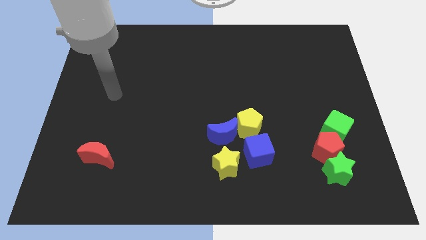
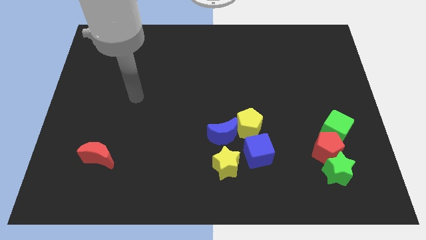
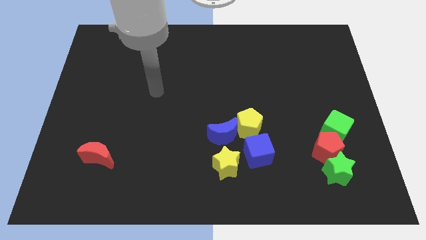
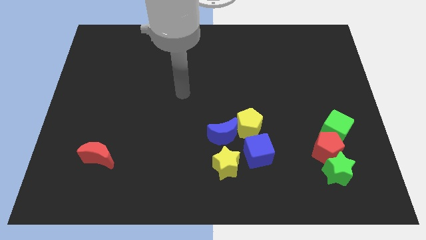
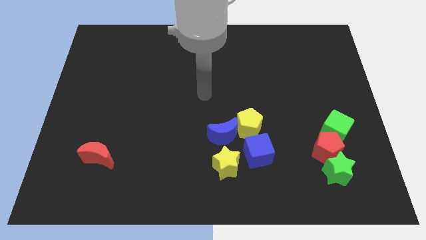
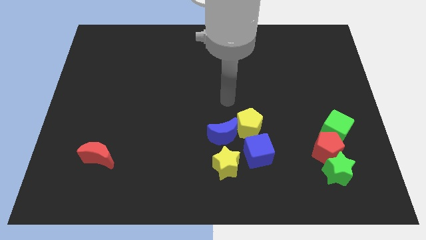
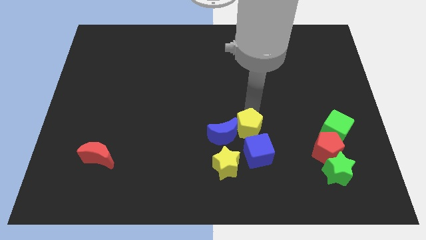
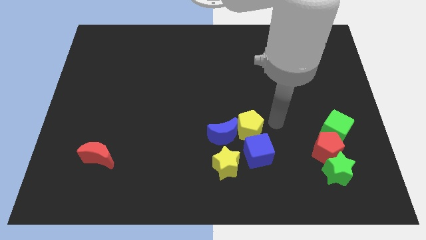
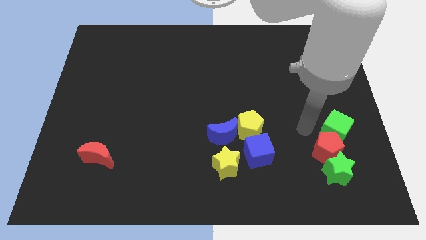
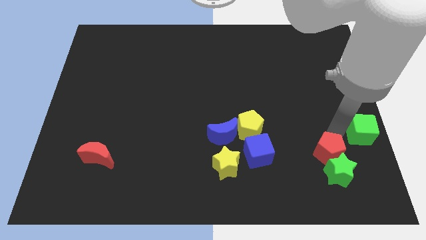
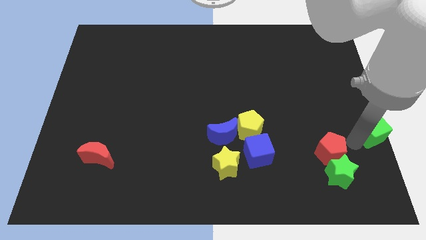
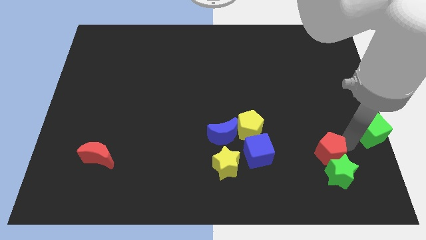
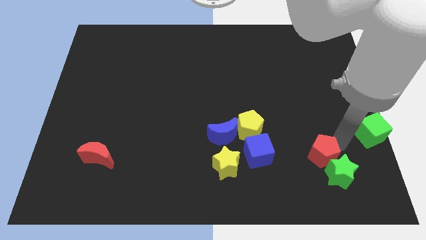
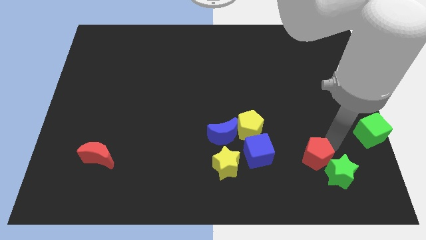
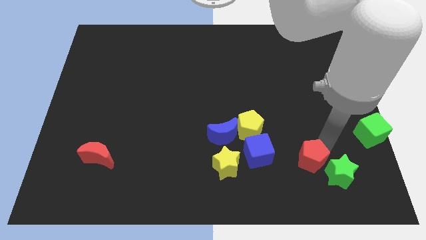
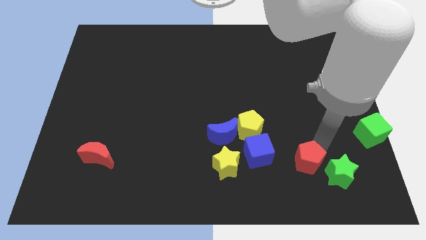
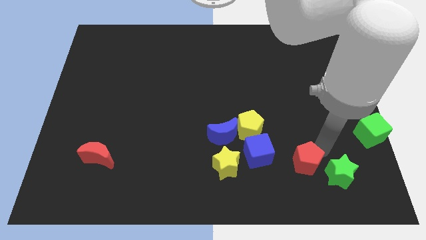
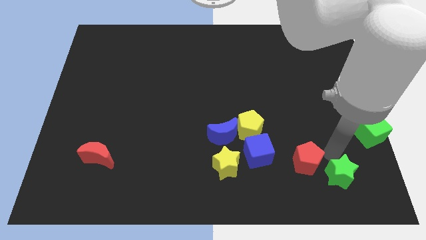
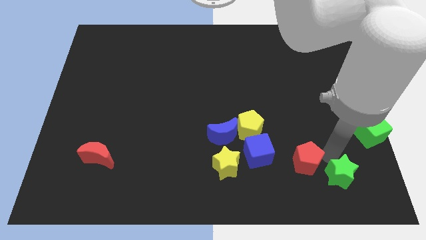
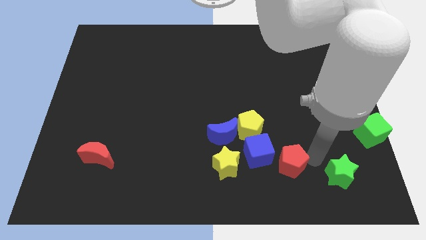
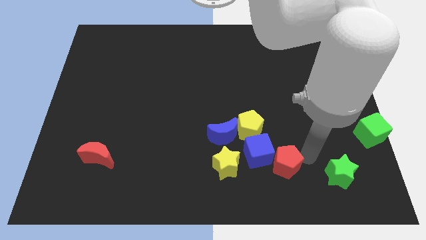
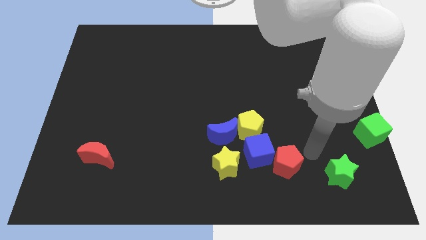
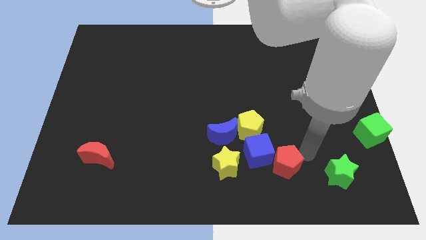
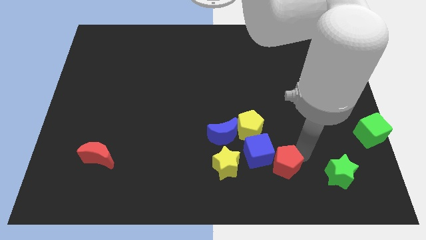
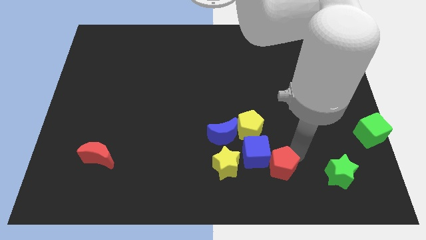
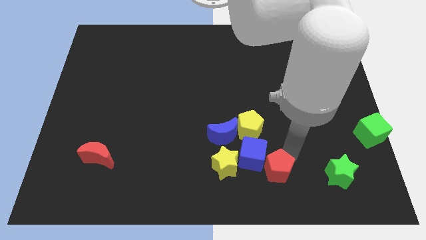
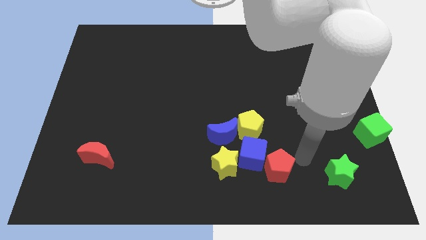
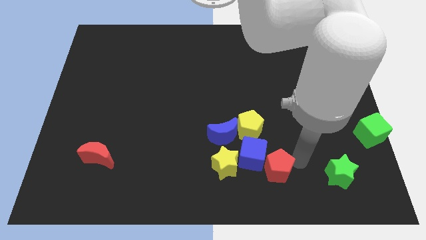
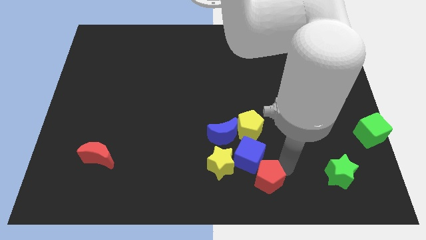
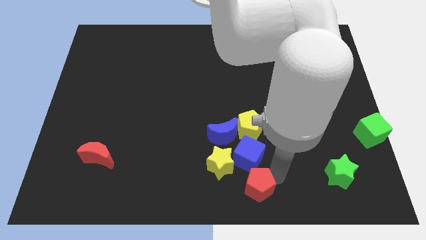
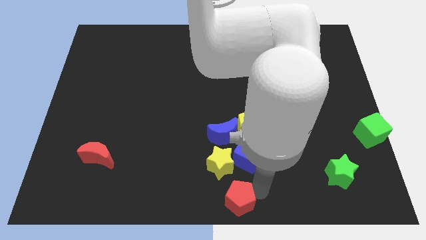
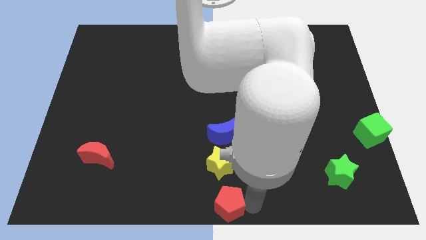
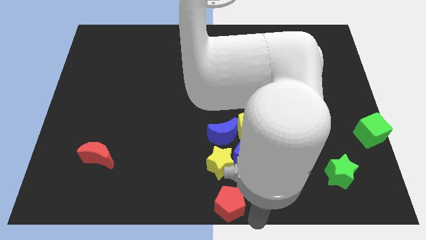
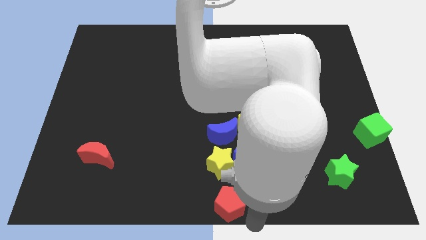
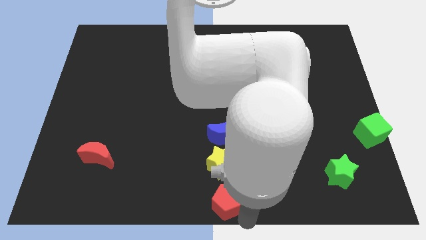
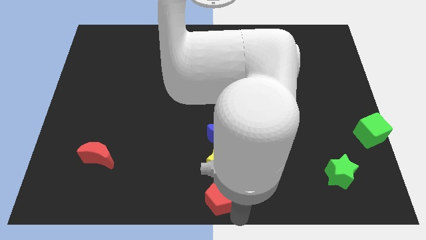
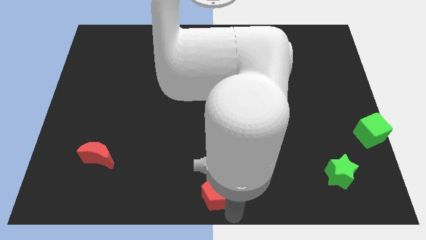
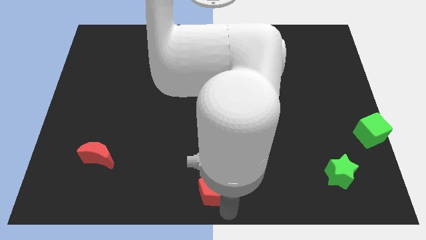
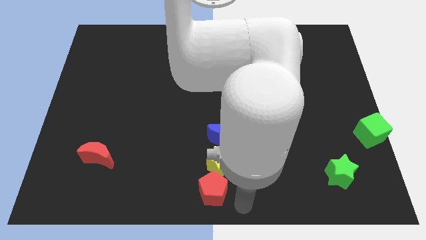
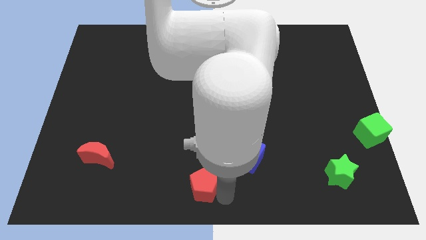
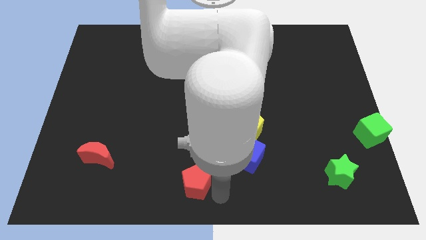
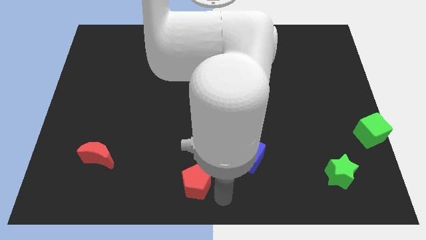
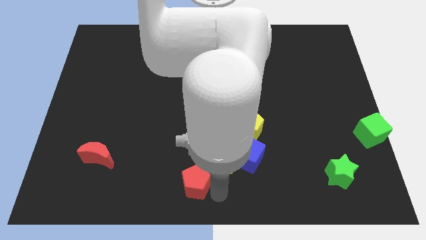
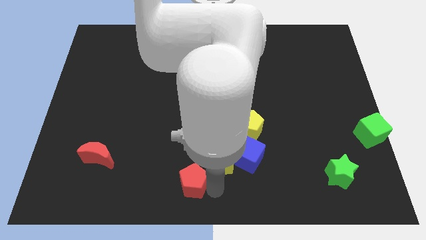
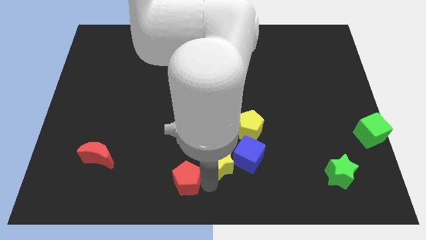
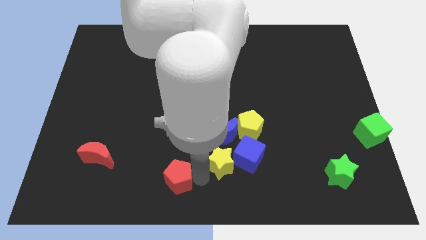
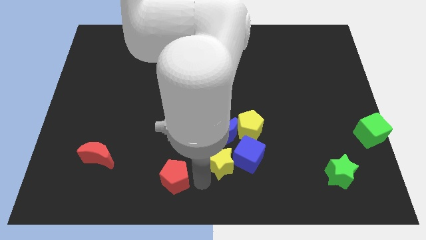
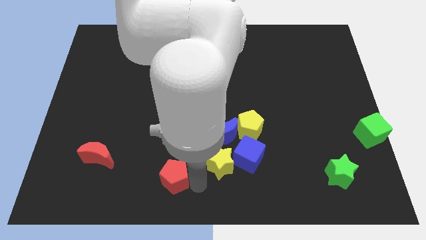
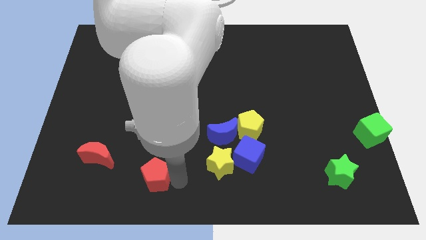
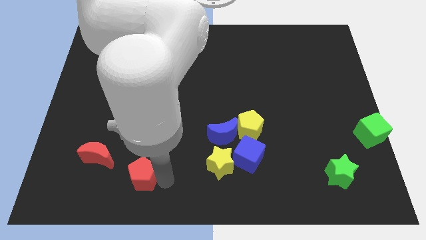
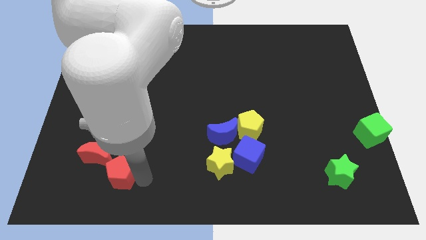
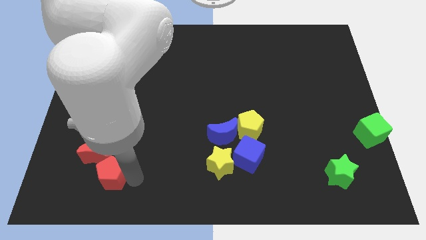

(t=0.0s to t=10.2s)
push the red pentagon towards the red moon

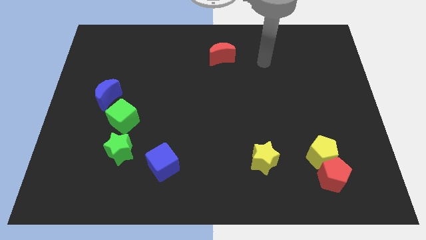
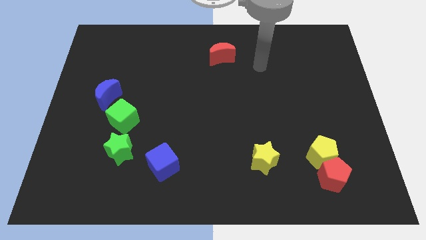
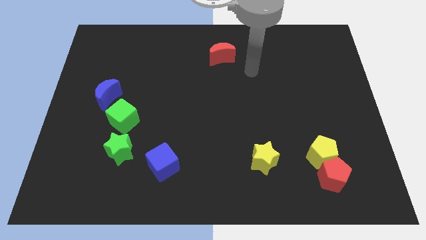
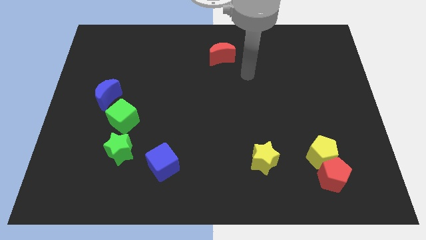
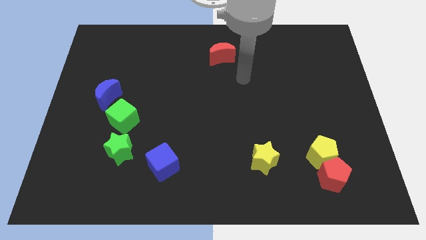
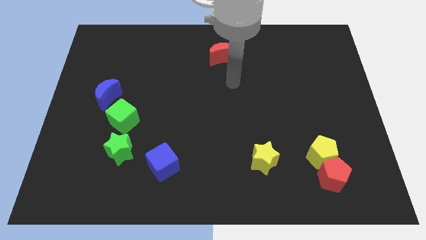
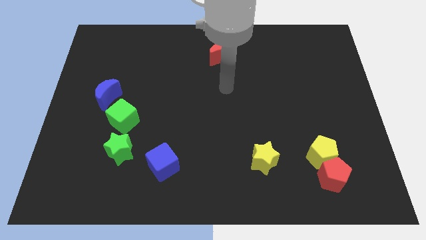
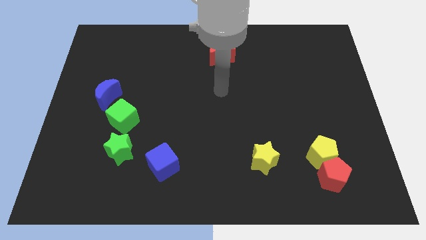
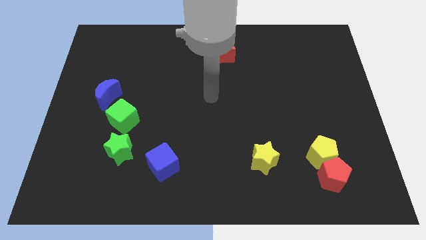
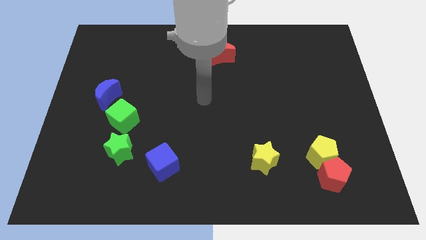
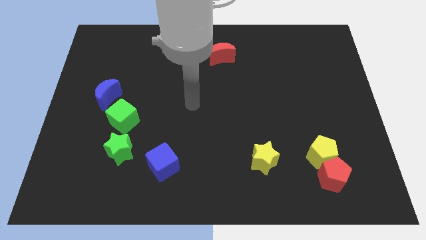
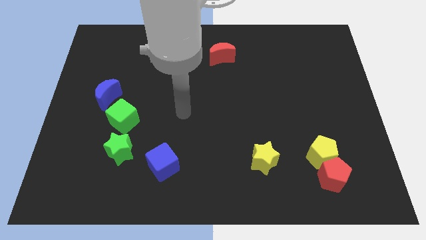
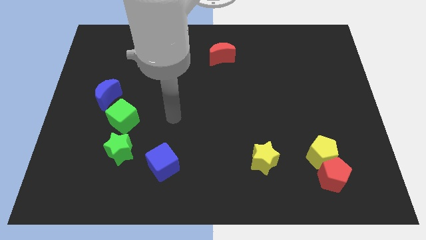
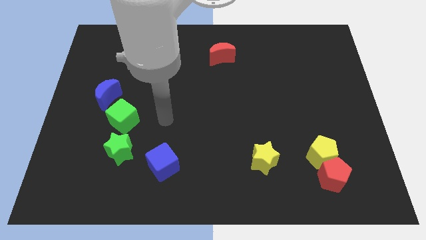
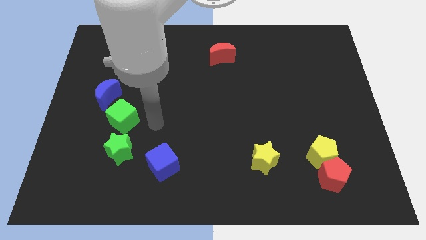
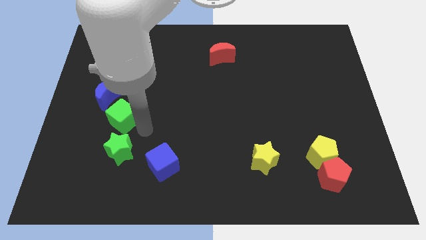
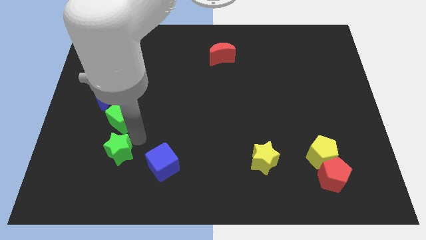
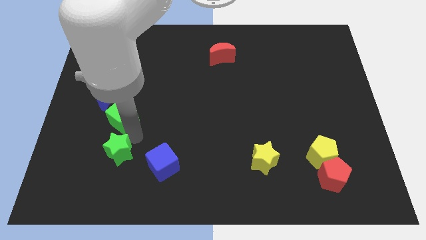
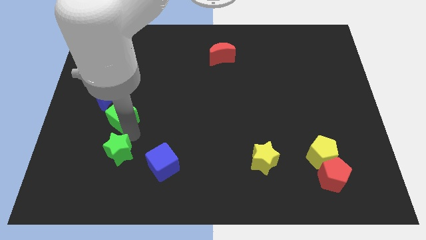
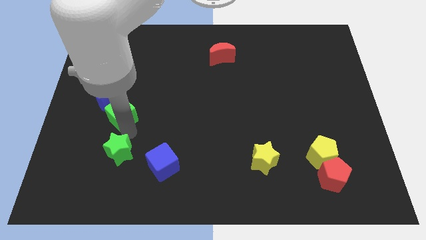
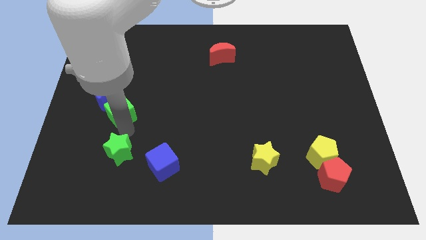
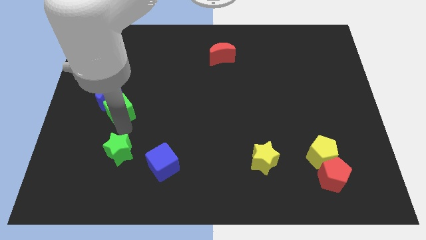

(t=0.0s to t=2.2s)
slide the green cube towards the blue moon
